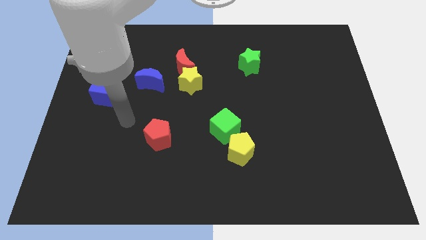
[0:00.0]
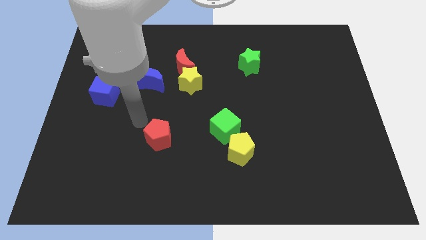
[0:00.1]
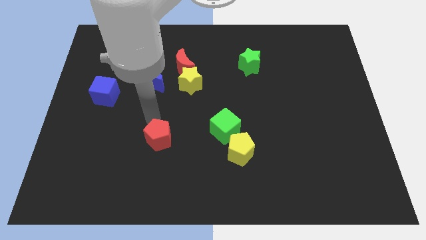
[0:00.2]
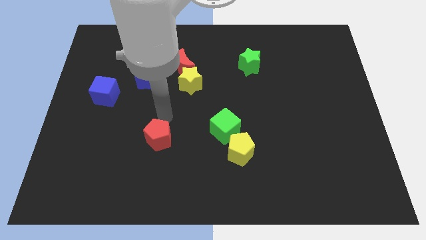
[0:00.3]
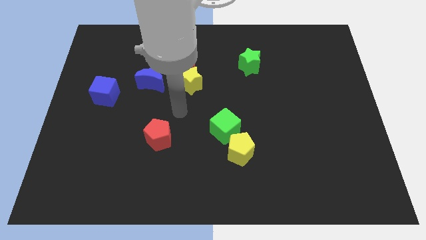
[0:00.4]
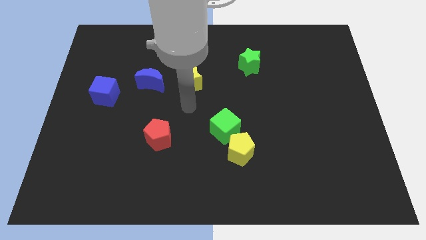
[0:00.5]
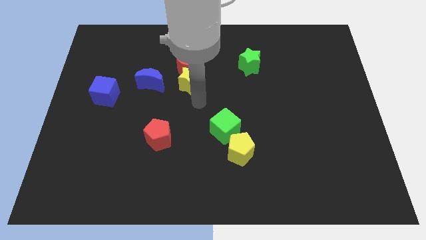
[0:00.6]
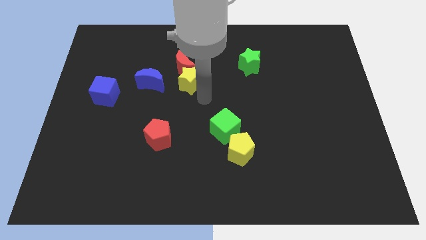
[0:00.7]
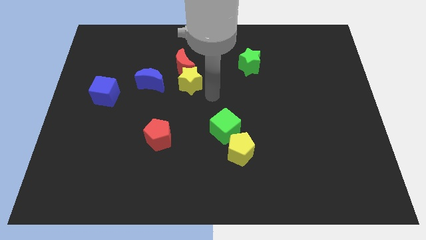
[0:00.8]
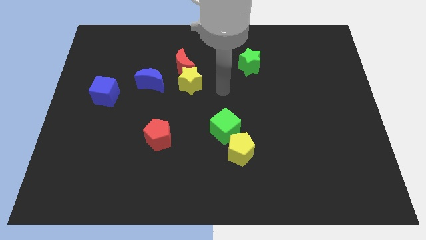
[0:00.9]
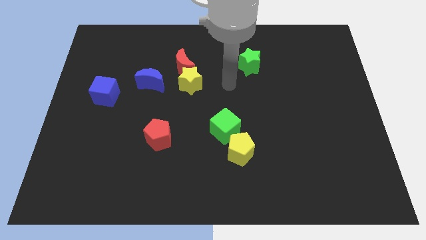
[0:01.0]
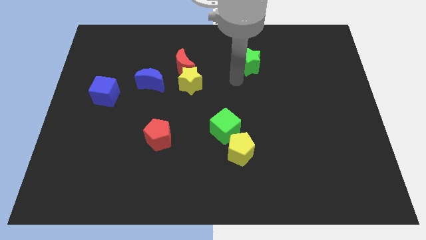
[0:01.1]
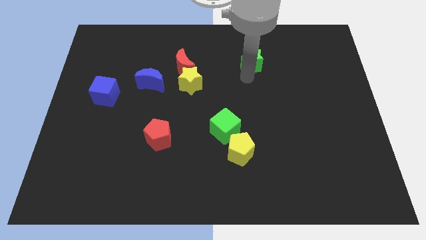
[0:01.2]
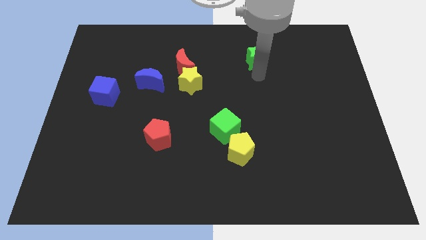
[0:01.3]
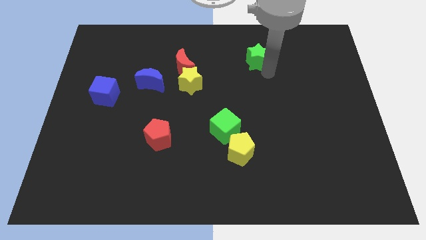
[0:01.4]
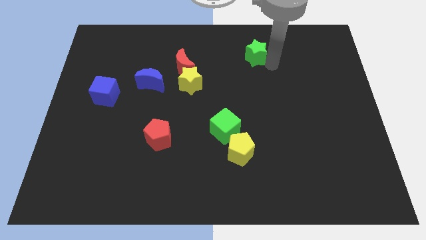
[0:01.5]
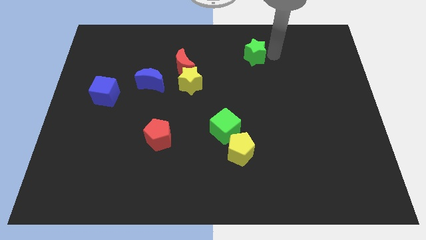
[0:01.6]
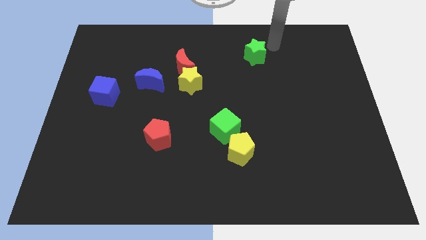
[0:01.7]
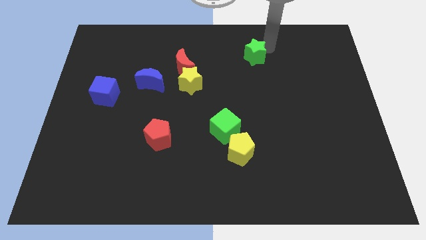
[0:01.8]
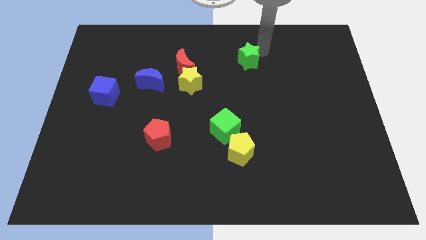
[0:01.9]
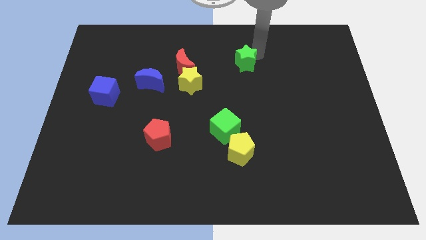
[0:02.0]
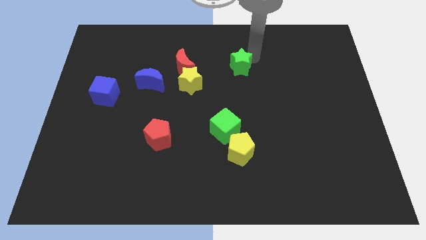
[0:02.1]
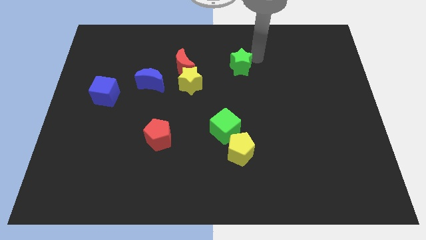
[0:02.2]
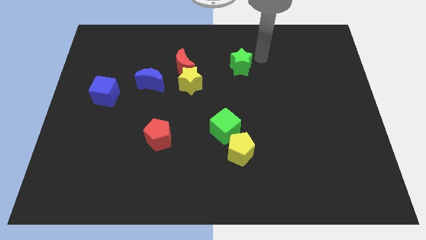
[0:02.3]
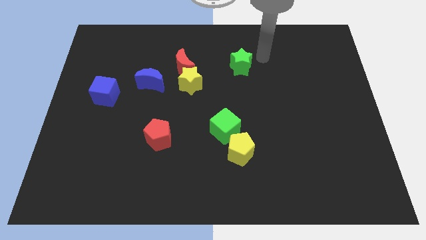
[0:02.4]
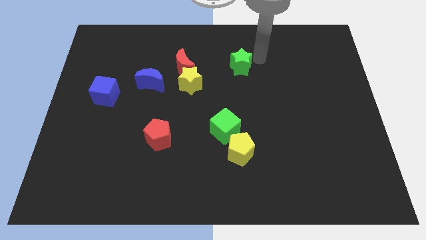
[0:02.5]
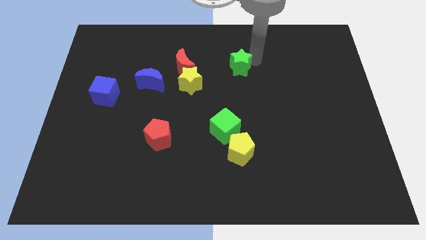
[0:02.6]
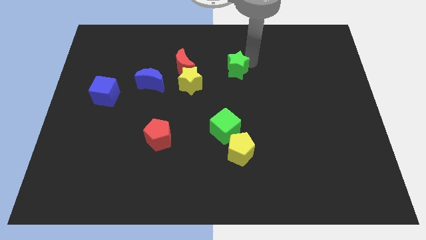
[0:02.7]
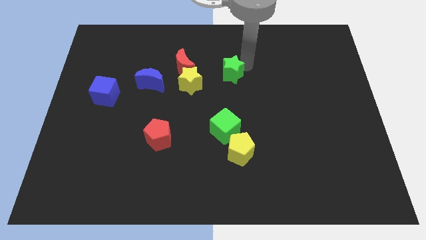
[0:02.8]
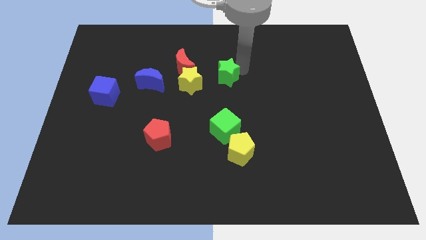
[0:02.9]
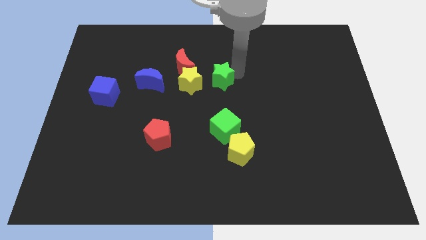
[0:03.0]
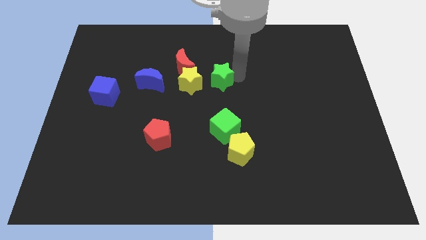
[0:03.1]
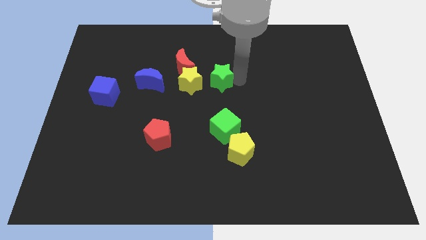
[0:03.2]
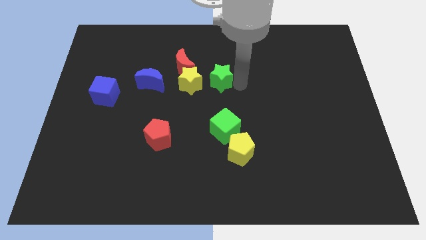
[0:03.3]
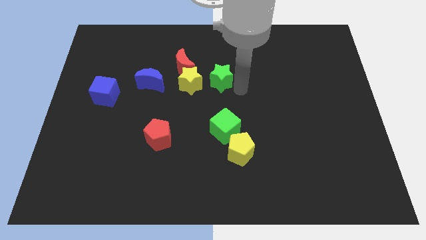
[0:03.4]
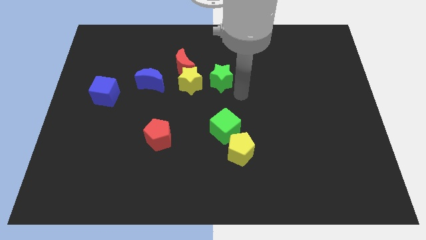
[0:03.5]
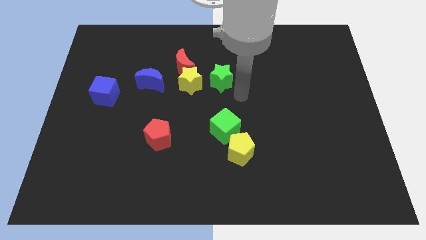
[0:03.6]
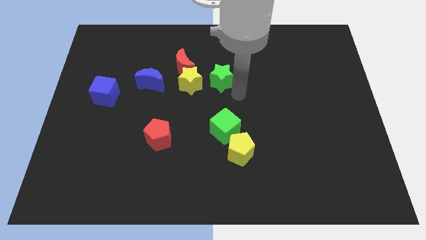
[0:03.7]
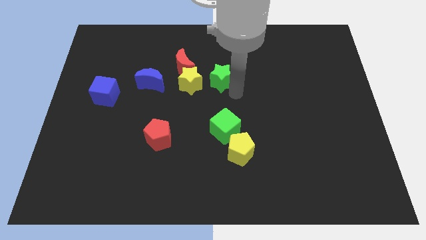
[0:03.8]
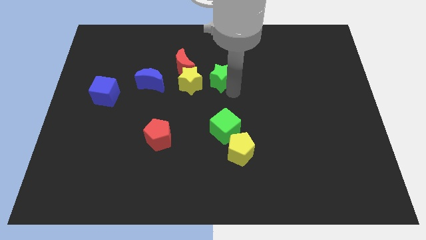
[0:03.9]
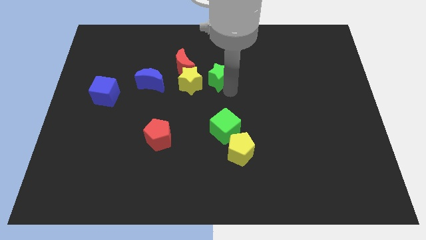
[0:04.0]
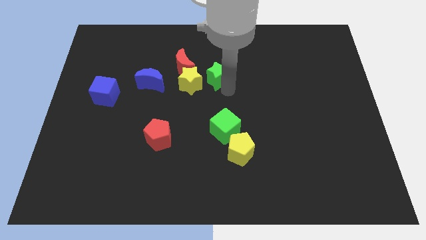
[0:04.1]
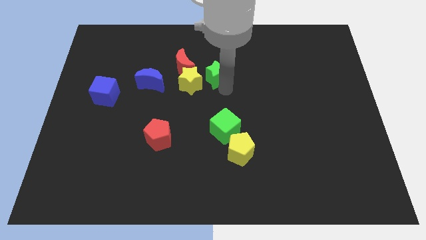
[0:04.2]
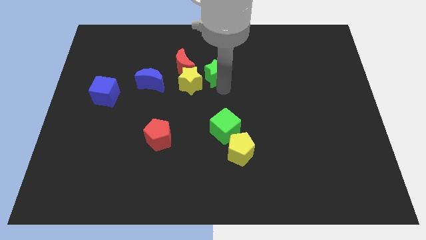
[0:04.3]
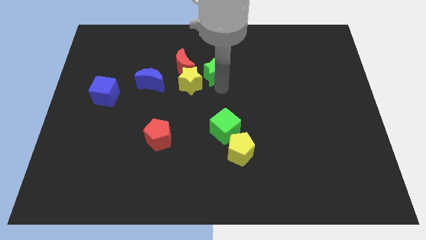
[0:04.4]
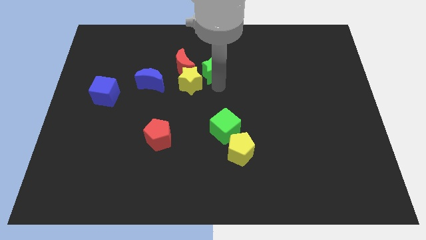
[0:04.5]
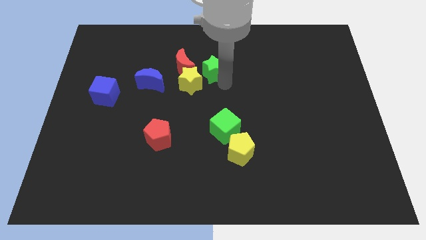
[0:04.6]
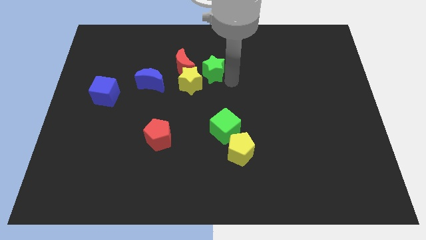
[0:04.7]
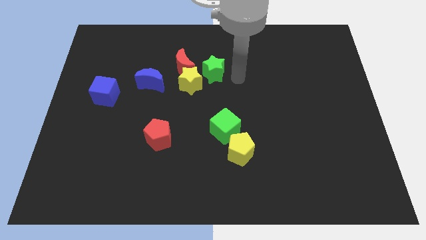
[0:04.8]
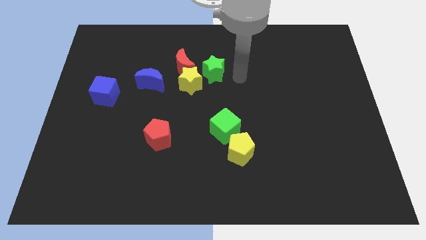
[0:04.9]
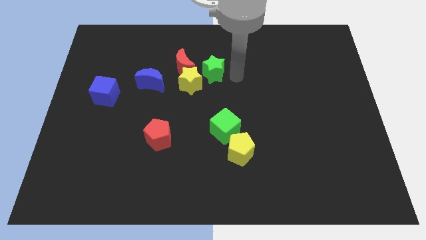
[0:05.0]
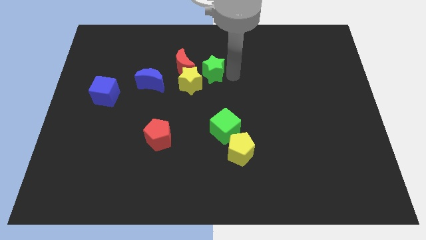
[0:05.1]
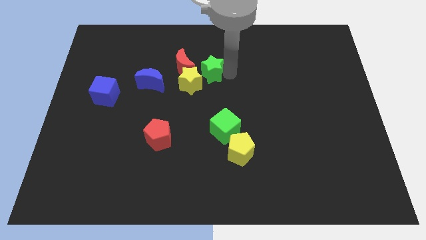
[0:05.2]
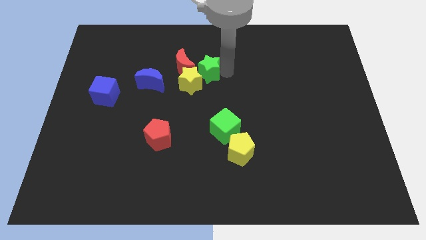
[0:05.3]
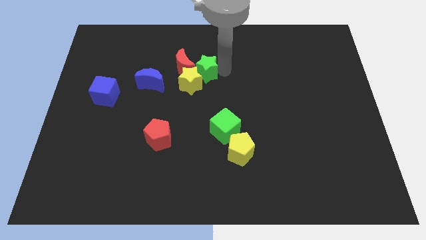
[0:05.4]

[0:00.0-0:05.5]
put the green star close to the red moon

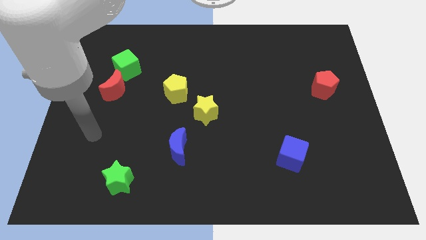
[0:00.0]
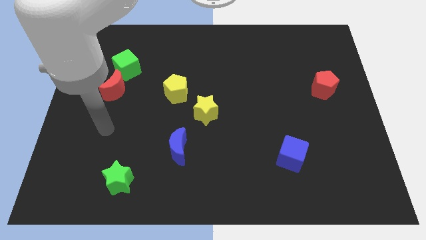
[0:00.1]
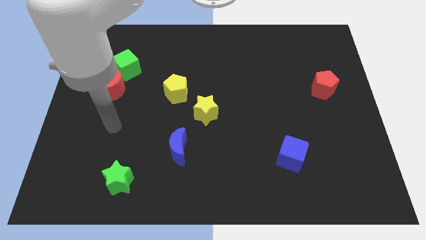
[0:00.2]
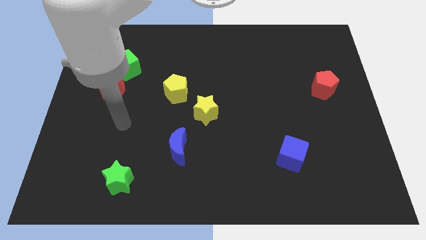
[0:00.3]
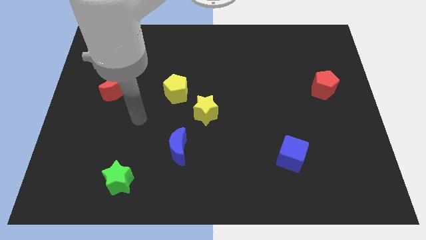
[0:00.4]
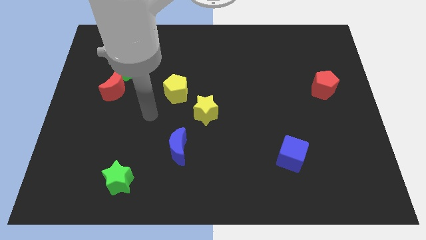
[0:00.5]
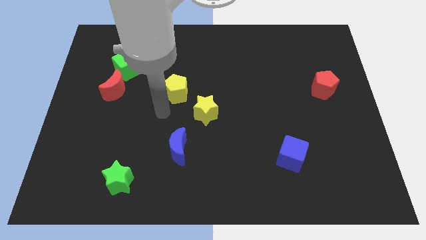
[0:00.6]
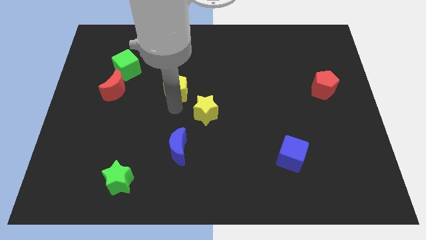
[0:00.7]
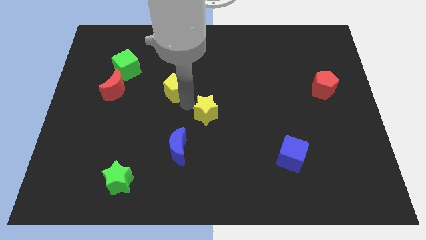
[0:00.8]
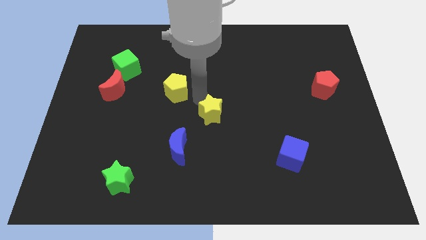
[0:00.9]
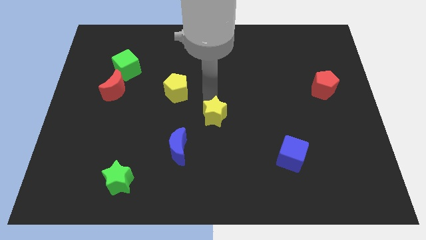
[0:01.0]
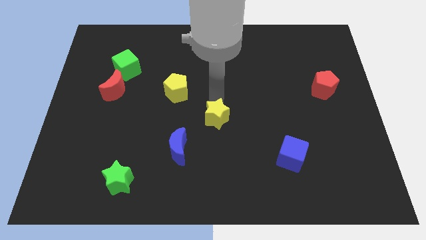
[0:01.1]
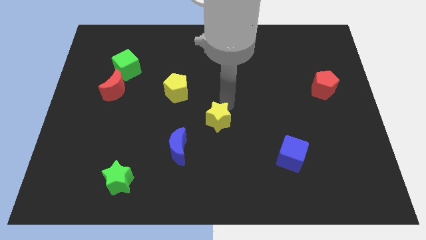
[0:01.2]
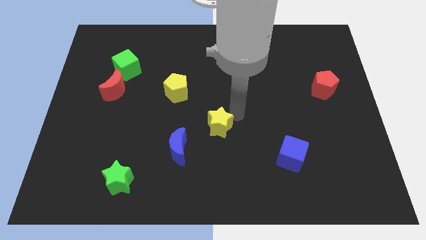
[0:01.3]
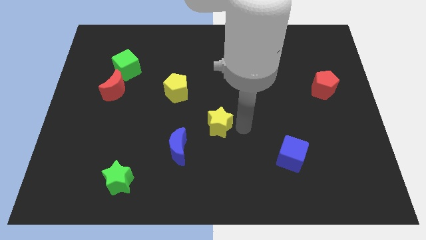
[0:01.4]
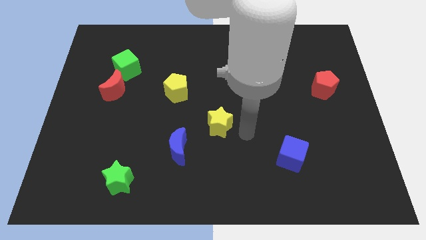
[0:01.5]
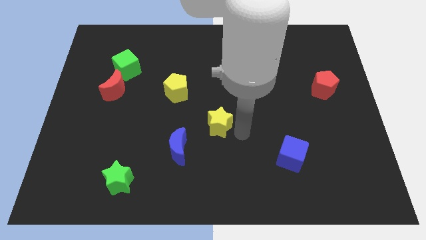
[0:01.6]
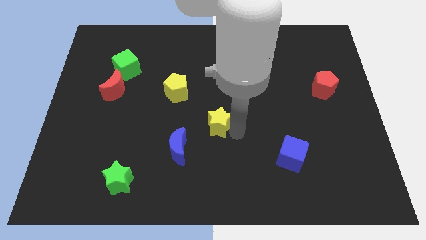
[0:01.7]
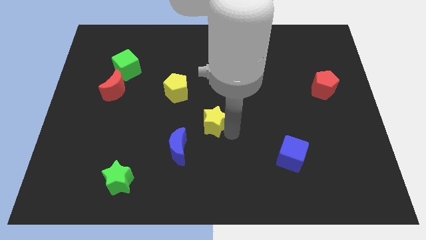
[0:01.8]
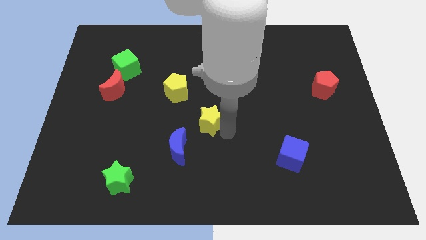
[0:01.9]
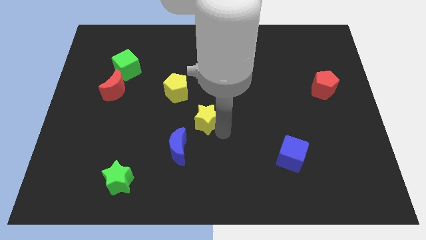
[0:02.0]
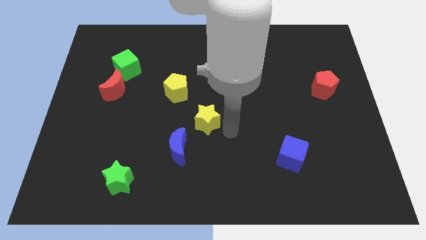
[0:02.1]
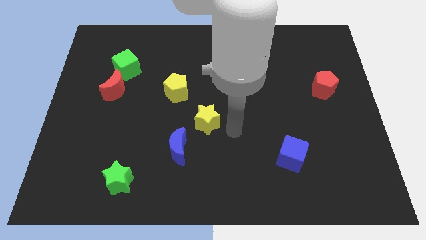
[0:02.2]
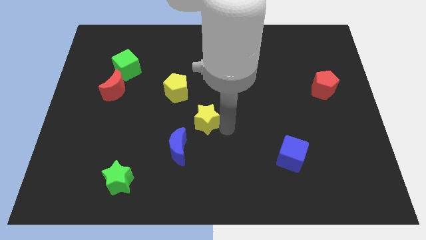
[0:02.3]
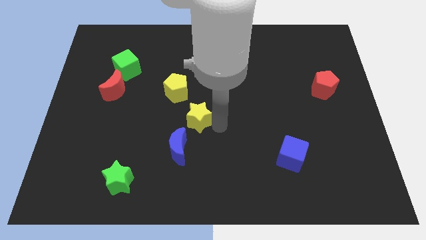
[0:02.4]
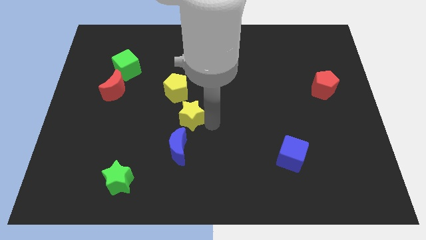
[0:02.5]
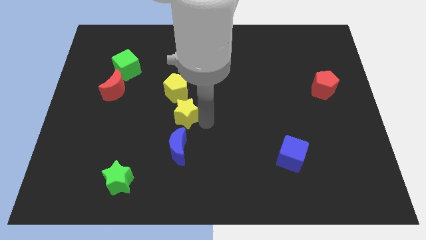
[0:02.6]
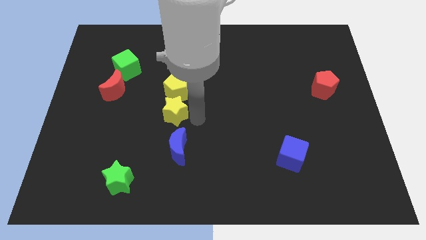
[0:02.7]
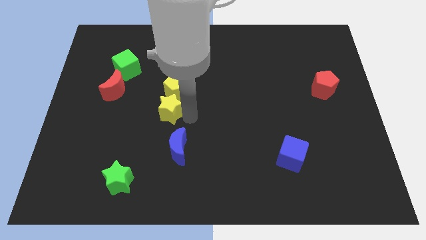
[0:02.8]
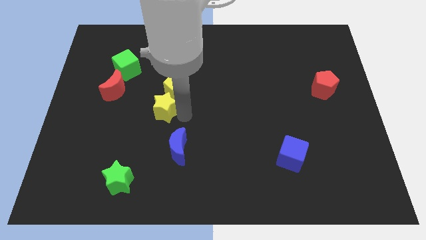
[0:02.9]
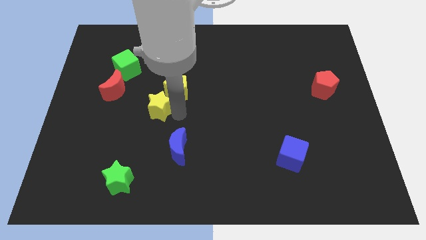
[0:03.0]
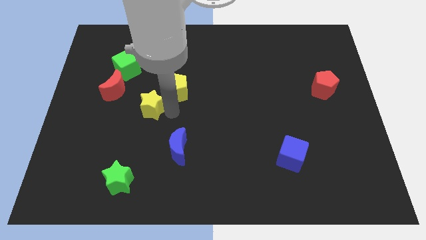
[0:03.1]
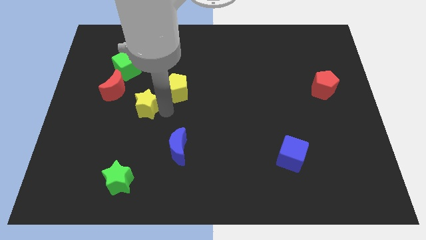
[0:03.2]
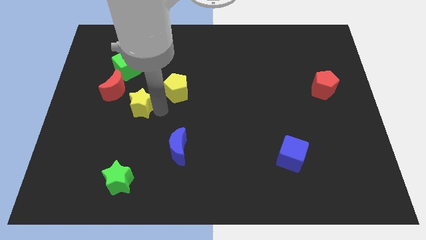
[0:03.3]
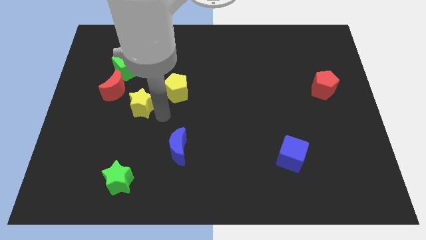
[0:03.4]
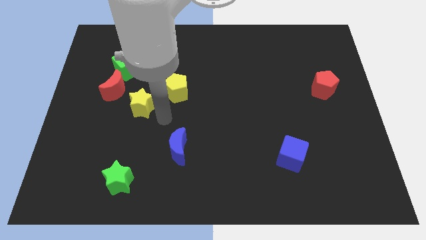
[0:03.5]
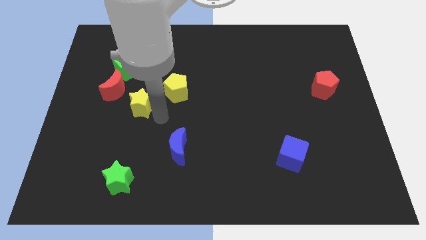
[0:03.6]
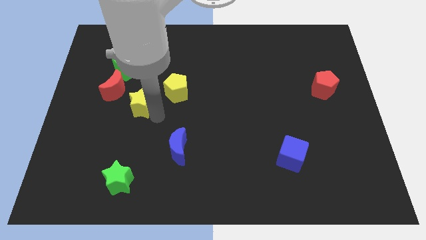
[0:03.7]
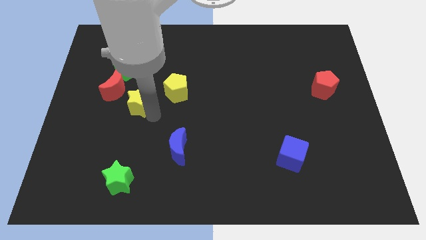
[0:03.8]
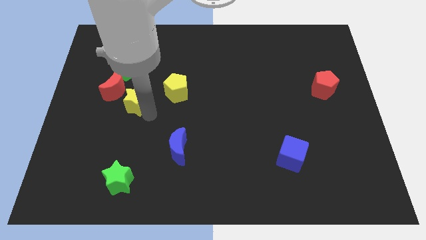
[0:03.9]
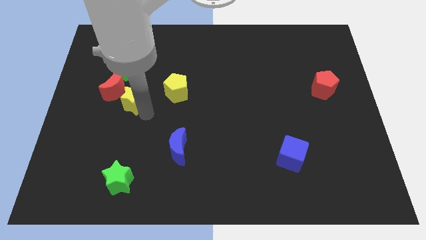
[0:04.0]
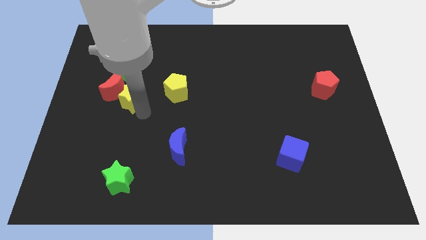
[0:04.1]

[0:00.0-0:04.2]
put the yellow star to the red moon
